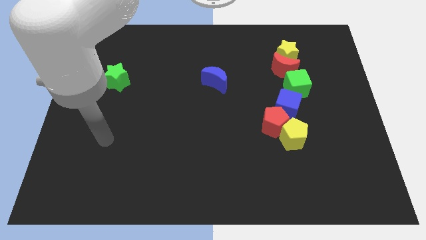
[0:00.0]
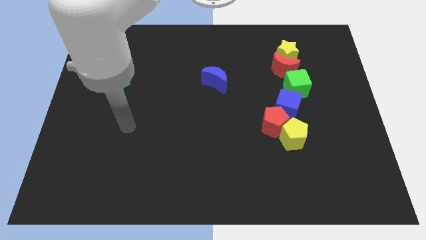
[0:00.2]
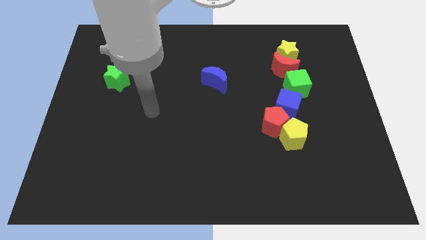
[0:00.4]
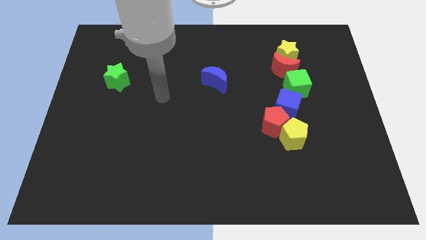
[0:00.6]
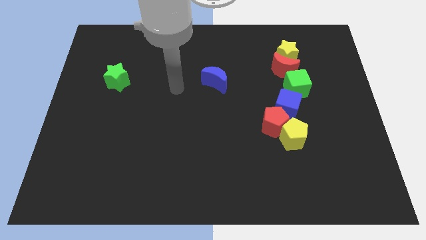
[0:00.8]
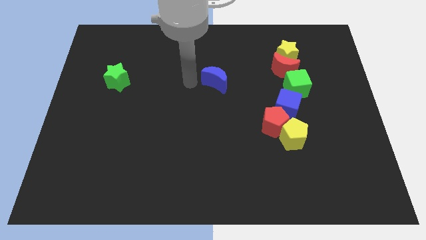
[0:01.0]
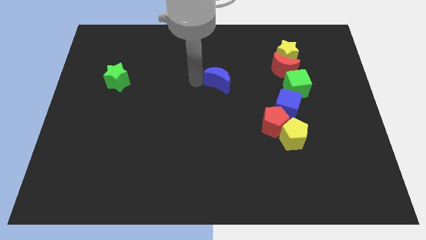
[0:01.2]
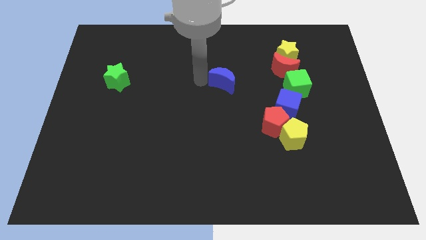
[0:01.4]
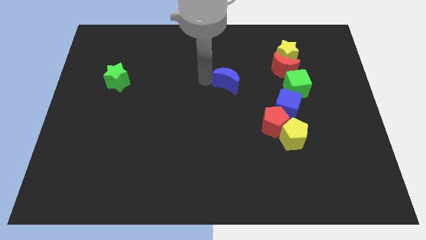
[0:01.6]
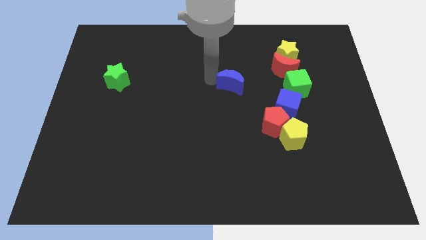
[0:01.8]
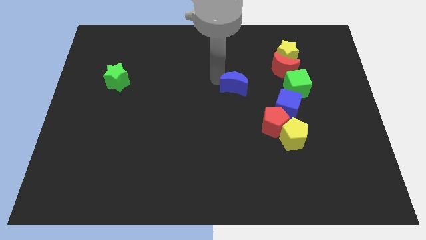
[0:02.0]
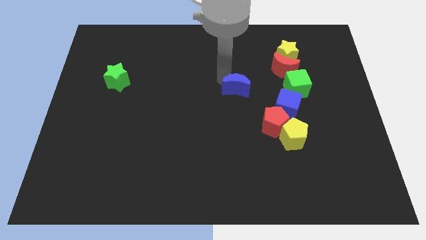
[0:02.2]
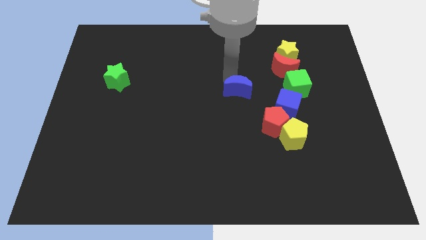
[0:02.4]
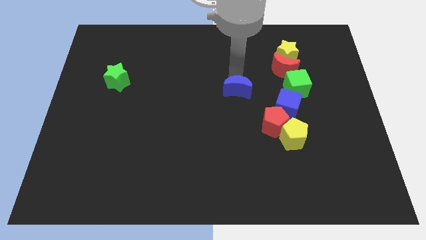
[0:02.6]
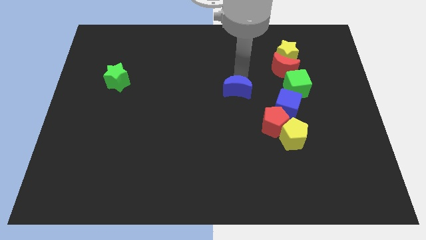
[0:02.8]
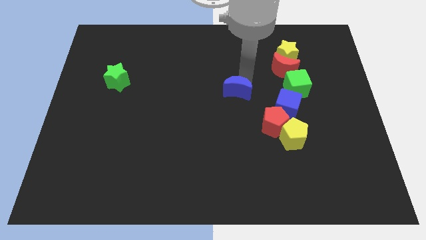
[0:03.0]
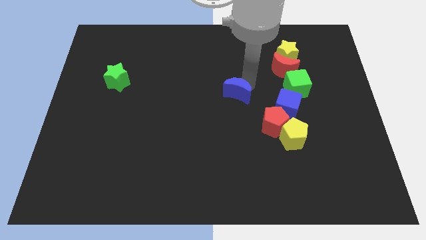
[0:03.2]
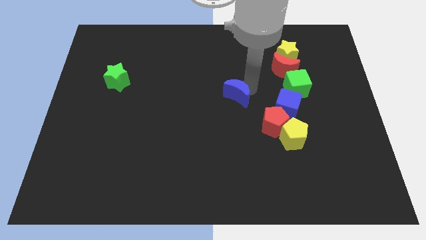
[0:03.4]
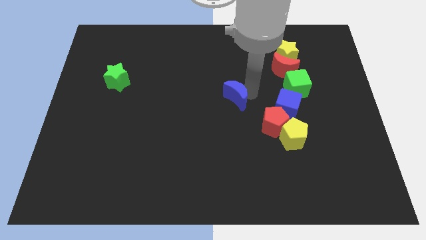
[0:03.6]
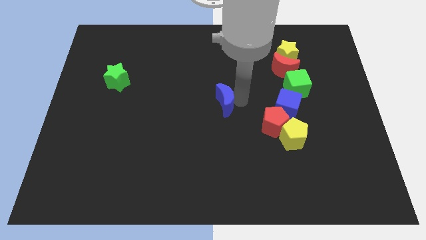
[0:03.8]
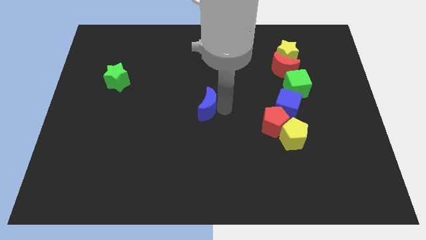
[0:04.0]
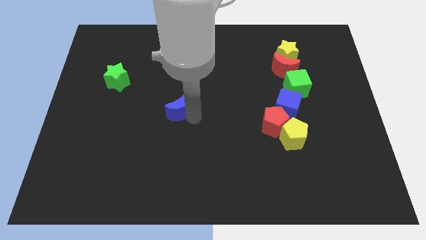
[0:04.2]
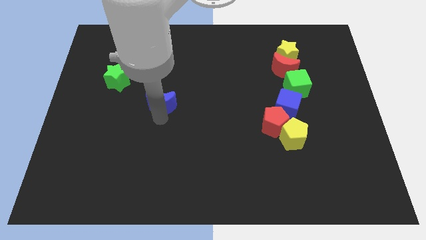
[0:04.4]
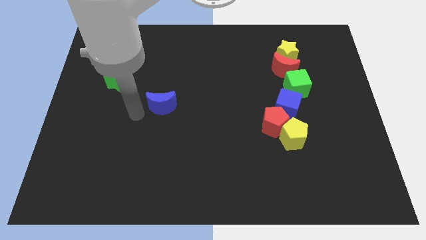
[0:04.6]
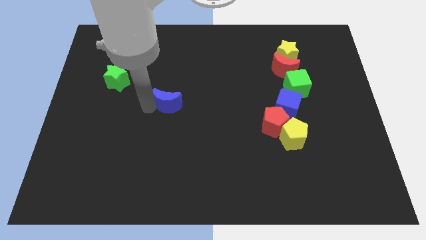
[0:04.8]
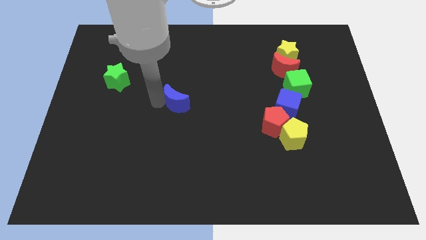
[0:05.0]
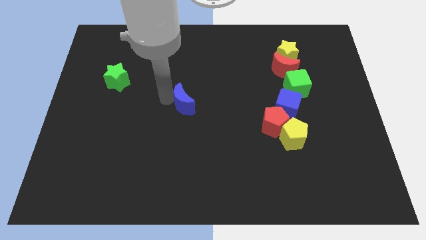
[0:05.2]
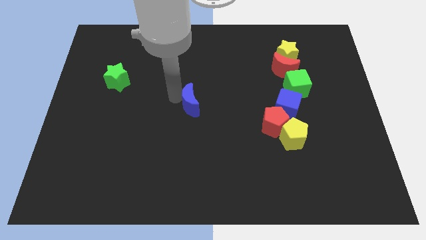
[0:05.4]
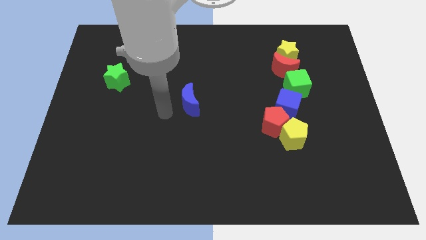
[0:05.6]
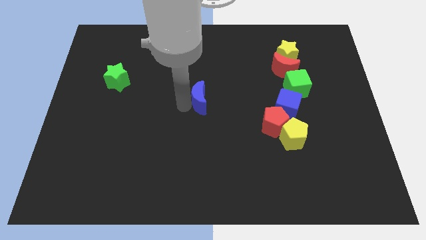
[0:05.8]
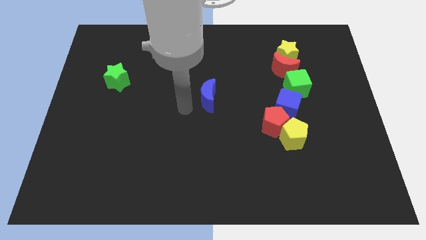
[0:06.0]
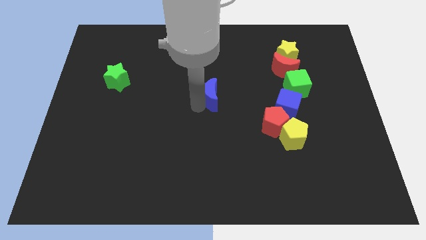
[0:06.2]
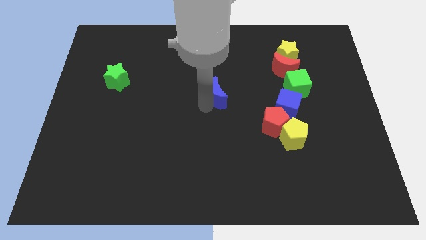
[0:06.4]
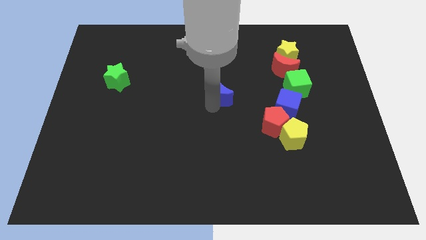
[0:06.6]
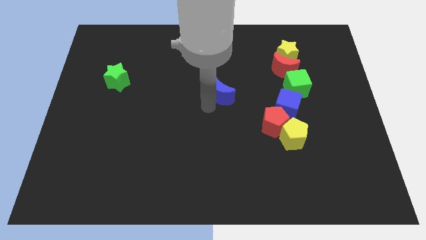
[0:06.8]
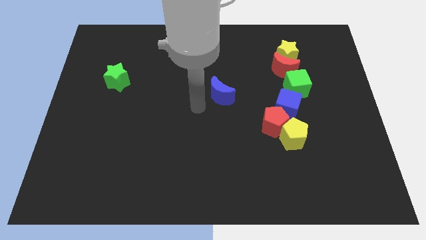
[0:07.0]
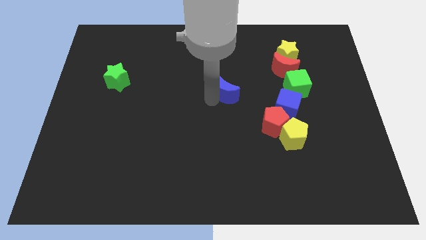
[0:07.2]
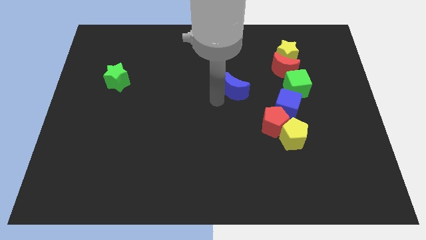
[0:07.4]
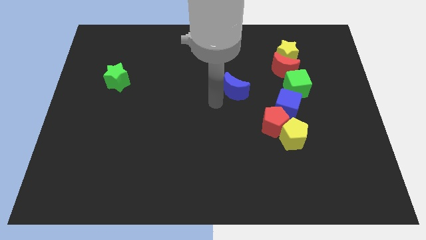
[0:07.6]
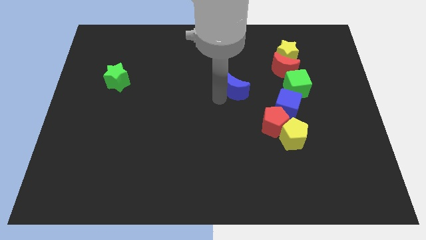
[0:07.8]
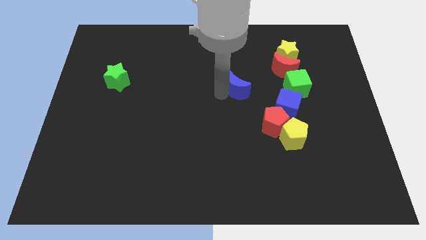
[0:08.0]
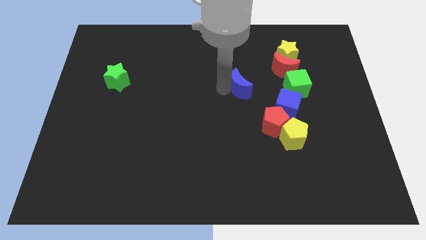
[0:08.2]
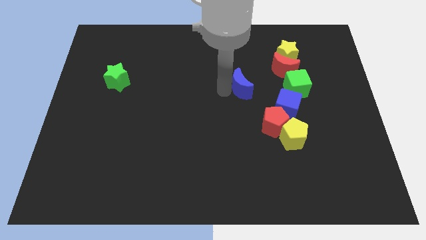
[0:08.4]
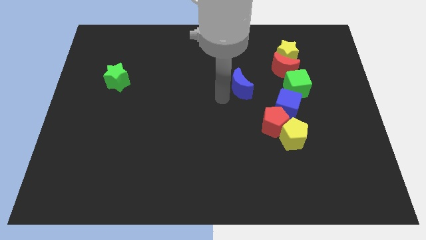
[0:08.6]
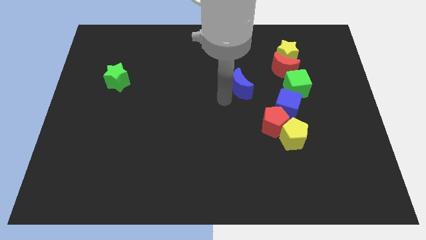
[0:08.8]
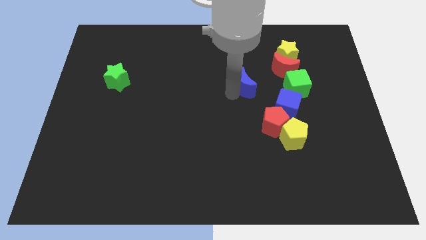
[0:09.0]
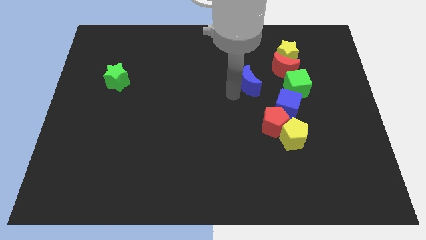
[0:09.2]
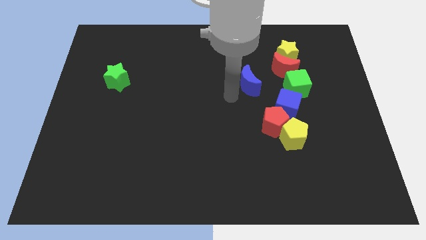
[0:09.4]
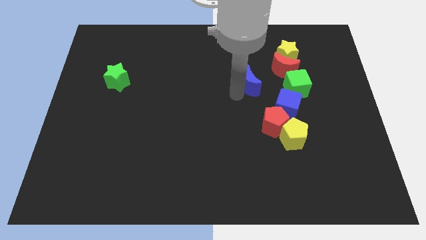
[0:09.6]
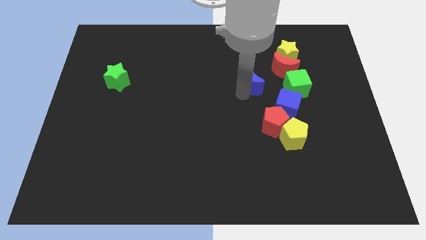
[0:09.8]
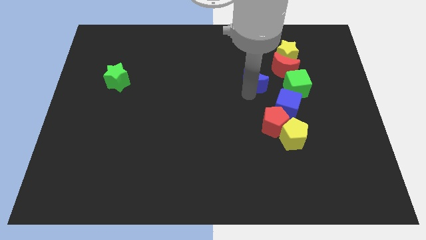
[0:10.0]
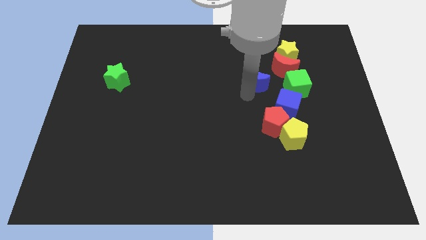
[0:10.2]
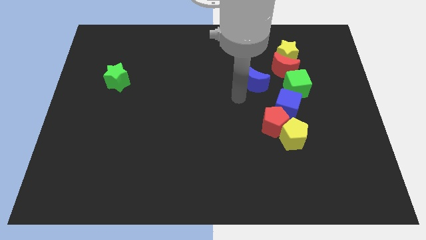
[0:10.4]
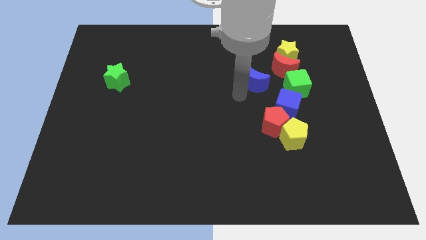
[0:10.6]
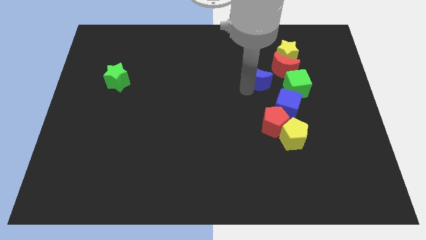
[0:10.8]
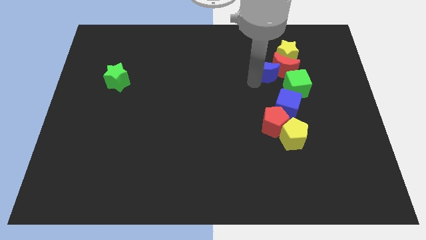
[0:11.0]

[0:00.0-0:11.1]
slide the blue moon towards the red moon

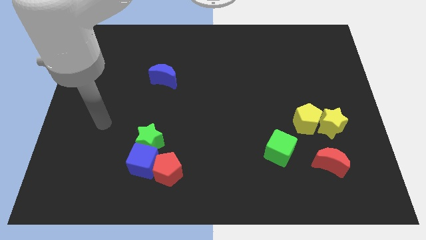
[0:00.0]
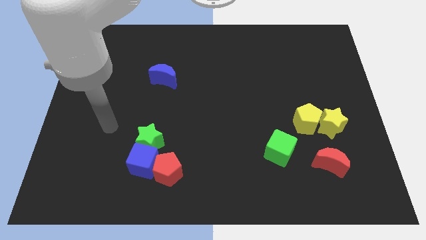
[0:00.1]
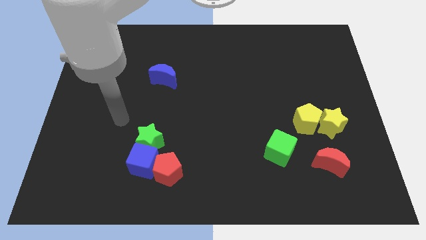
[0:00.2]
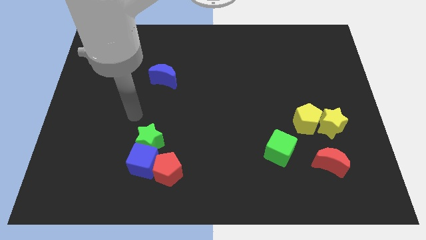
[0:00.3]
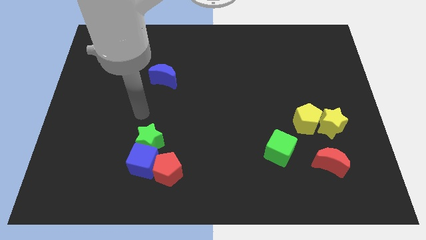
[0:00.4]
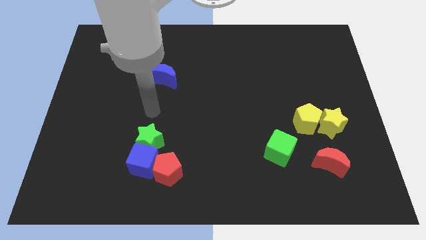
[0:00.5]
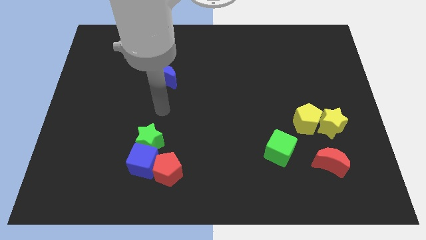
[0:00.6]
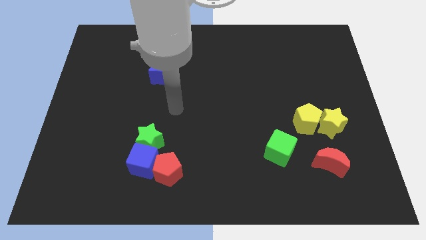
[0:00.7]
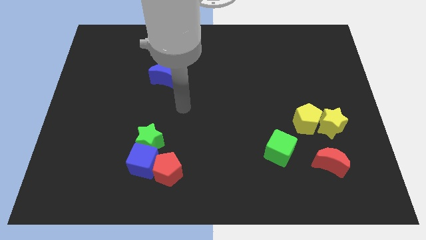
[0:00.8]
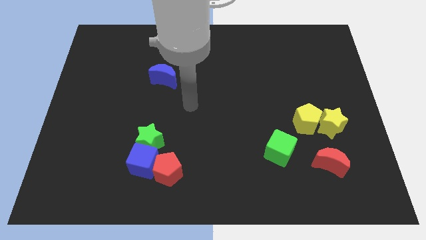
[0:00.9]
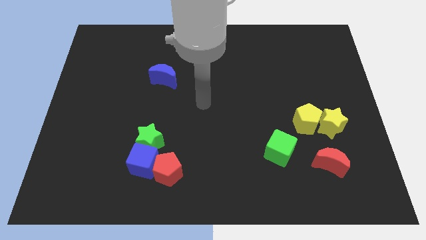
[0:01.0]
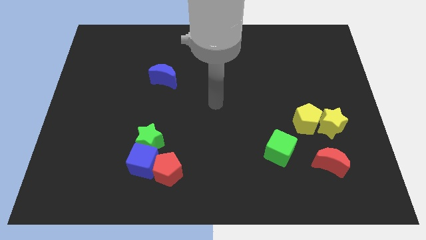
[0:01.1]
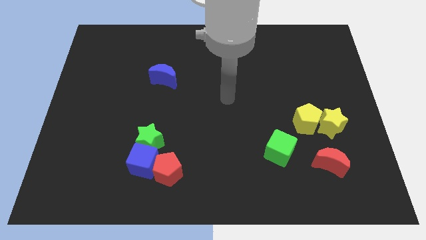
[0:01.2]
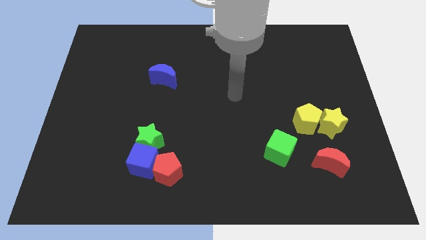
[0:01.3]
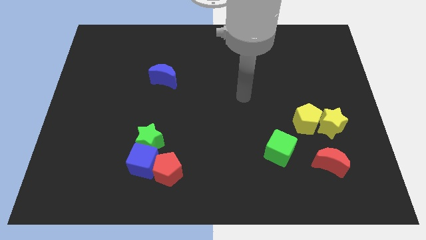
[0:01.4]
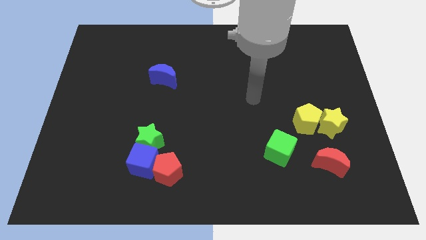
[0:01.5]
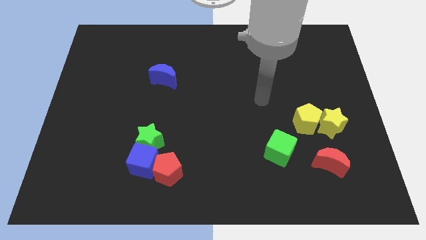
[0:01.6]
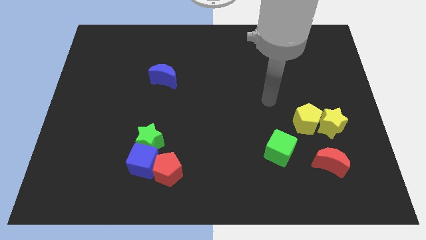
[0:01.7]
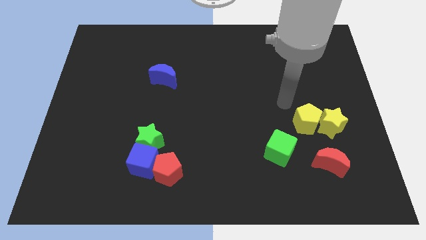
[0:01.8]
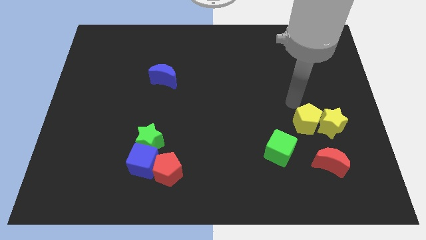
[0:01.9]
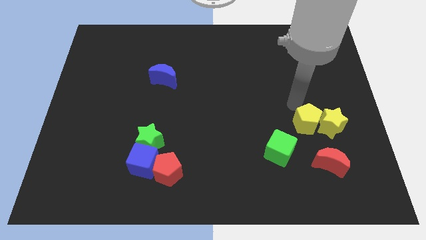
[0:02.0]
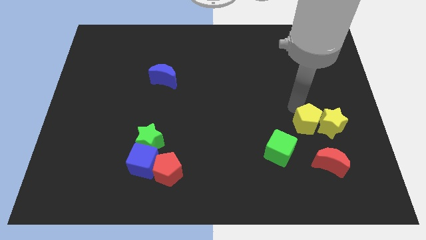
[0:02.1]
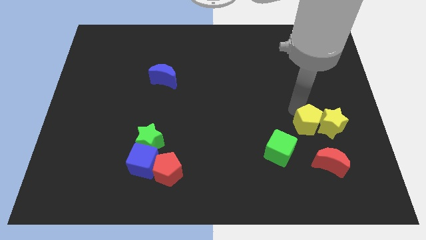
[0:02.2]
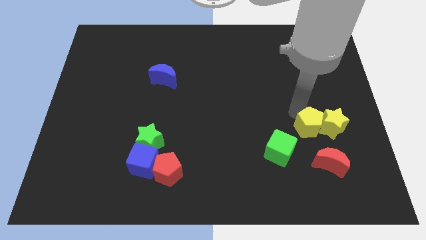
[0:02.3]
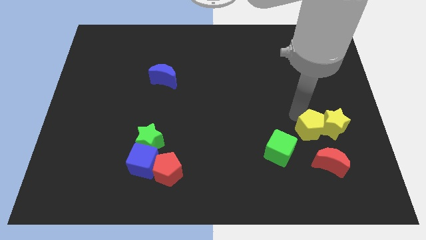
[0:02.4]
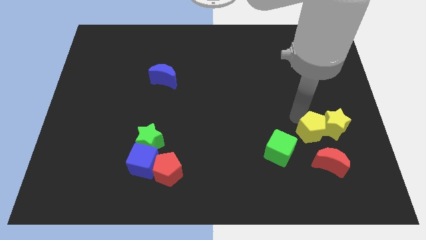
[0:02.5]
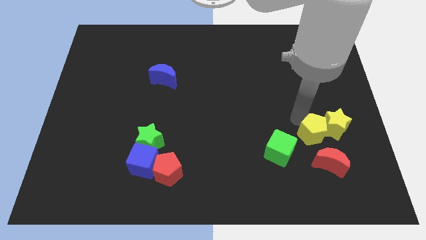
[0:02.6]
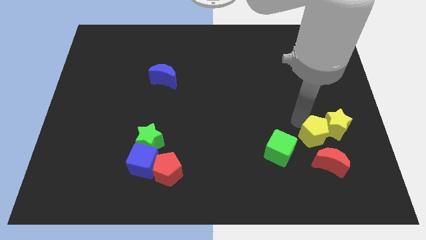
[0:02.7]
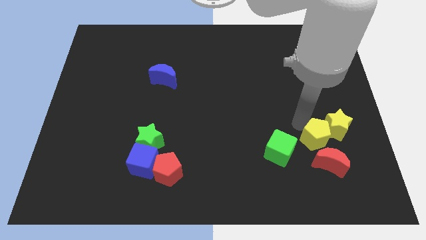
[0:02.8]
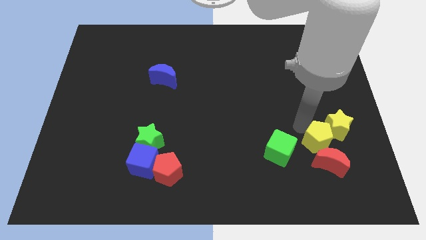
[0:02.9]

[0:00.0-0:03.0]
push the yellow pentagon towards the red moon
